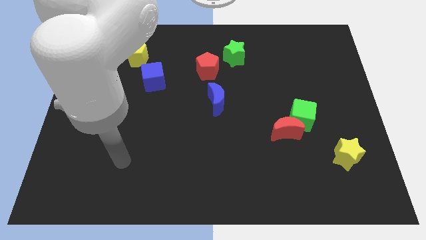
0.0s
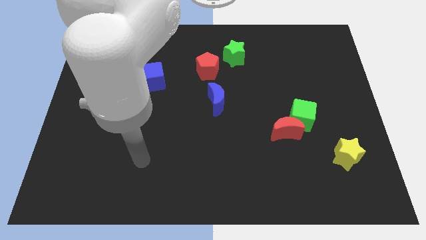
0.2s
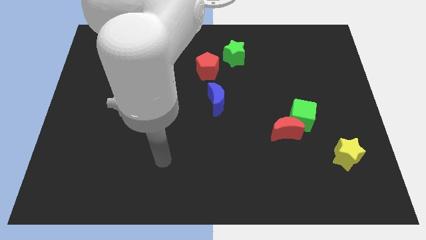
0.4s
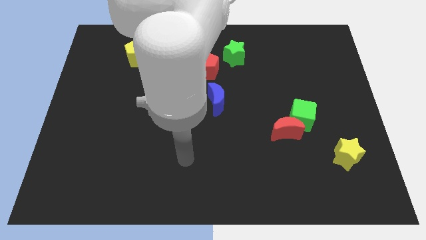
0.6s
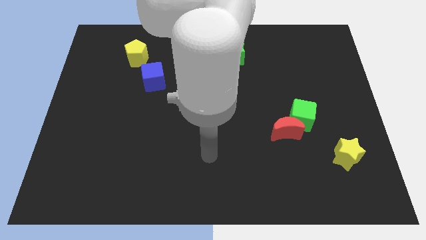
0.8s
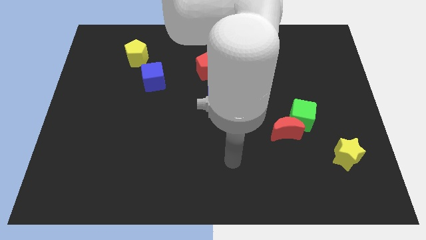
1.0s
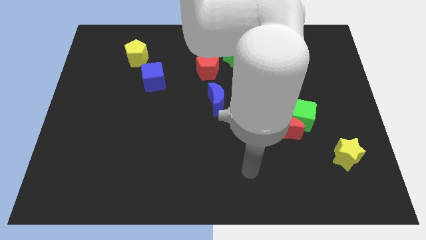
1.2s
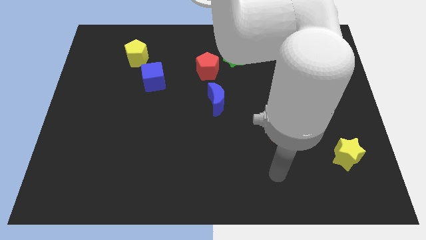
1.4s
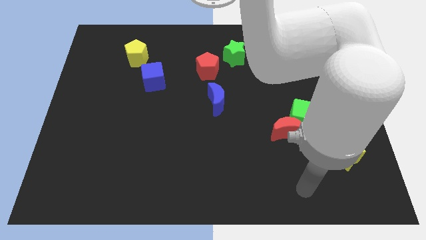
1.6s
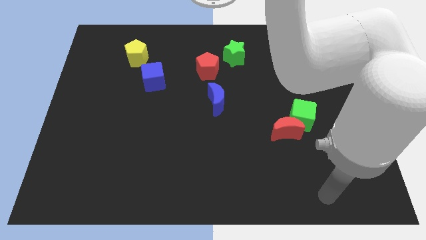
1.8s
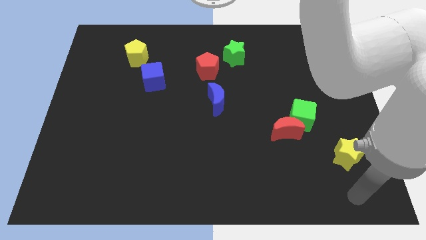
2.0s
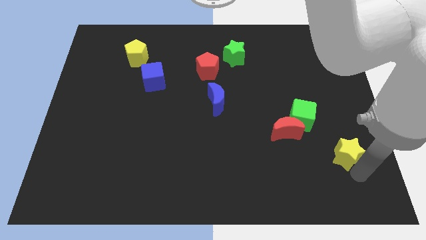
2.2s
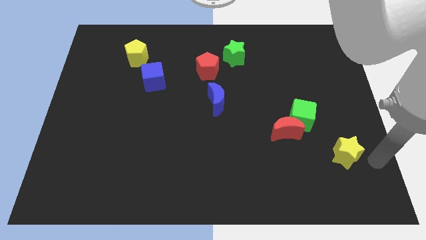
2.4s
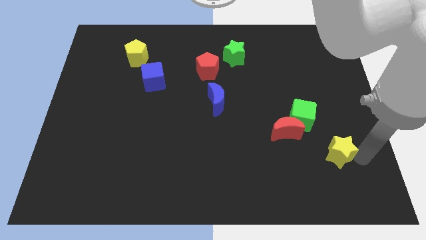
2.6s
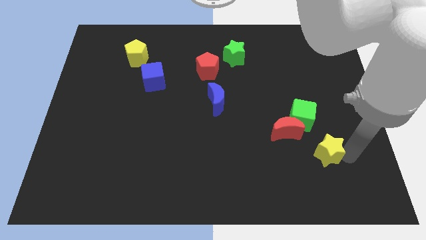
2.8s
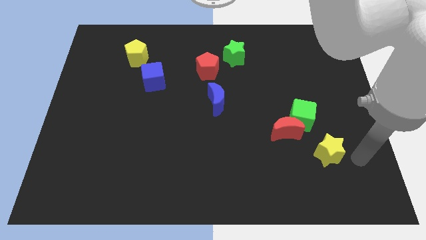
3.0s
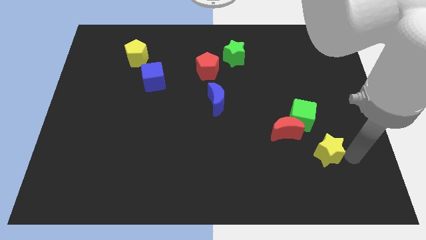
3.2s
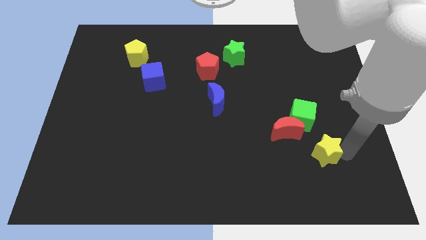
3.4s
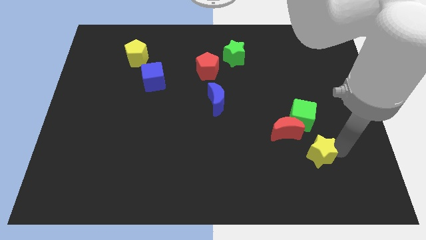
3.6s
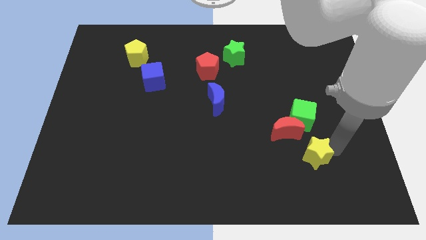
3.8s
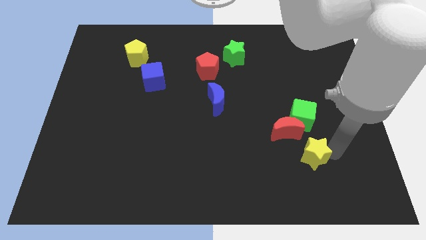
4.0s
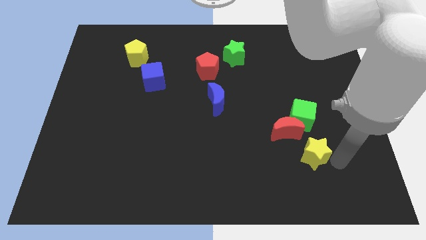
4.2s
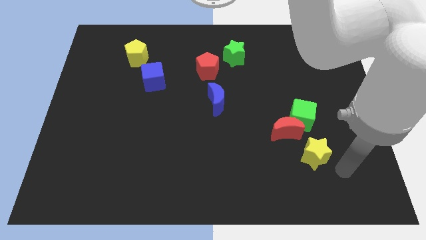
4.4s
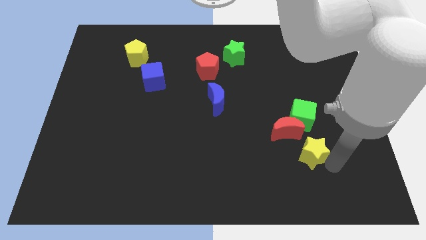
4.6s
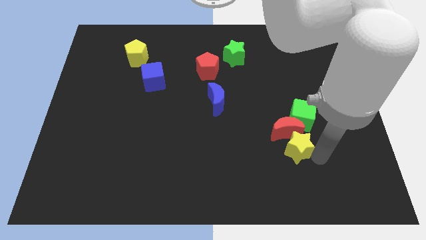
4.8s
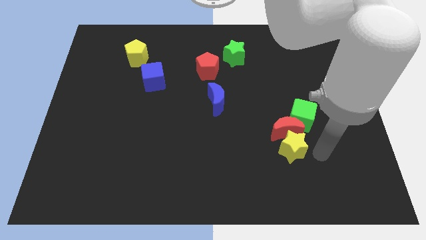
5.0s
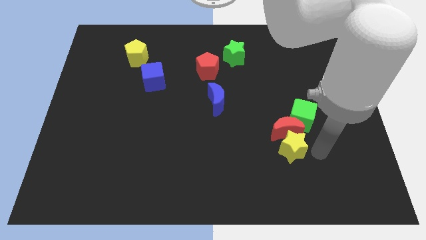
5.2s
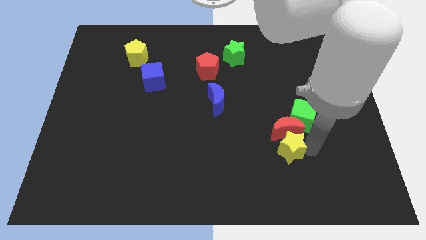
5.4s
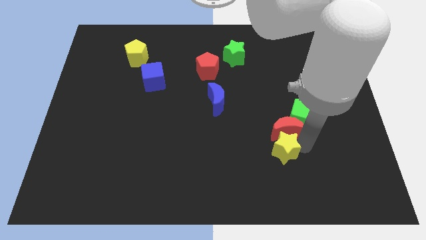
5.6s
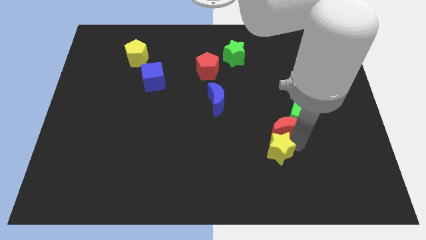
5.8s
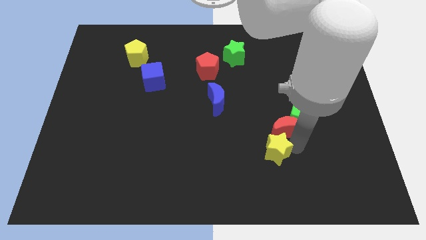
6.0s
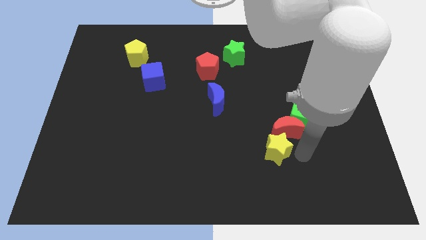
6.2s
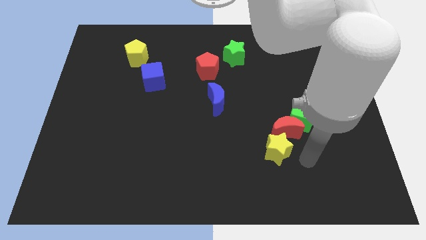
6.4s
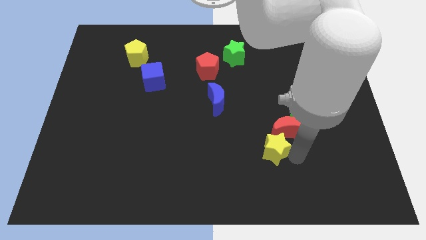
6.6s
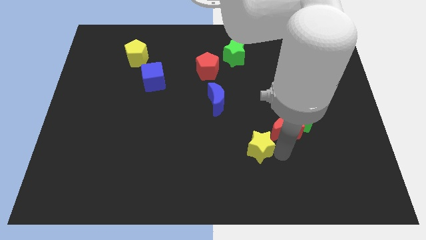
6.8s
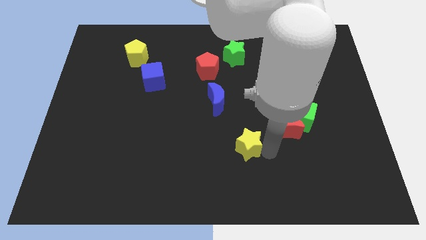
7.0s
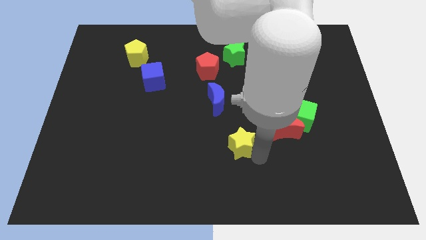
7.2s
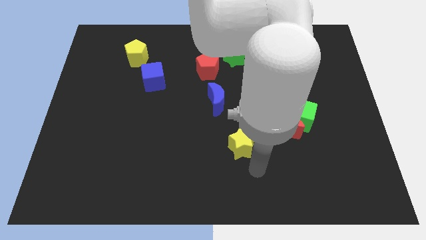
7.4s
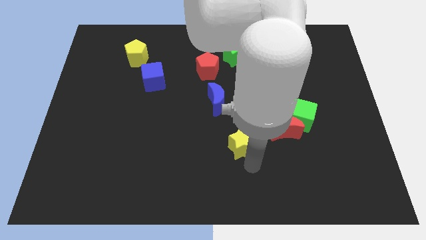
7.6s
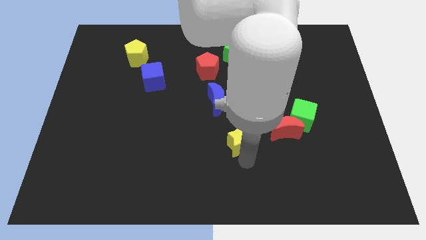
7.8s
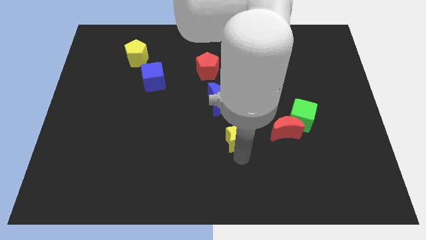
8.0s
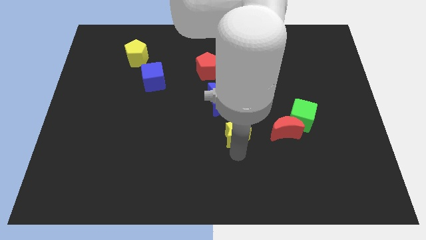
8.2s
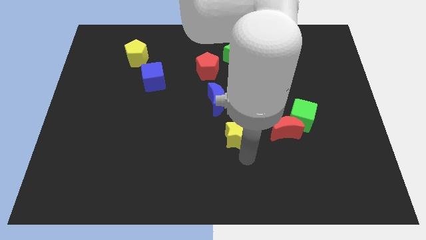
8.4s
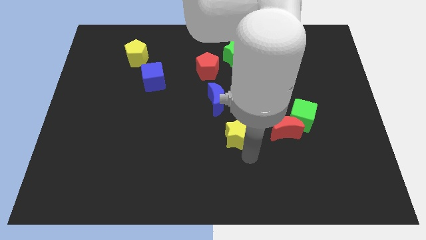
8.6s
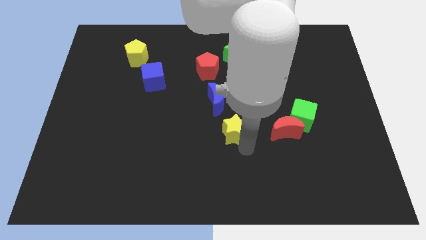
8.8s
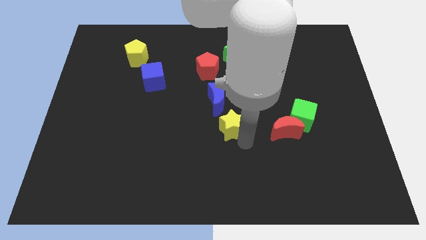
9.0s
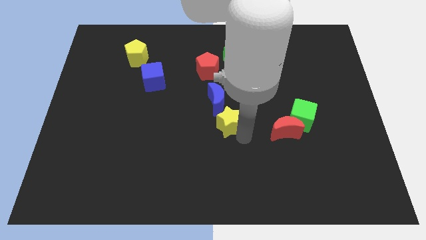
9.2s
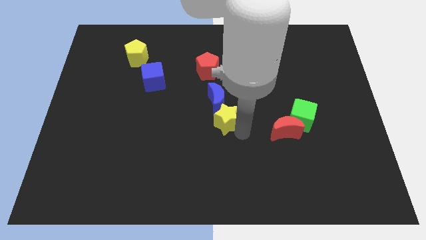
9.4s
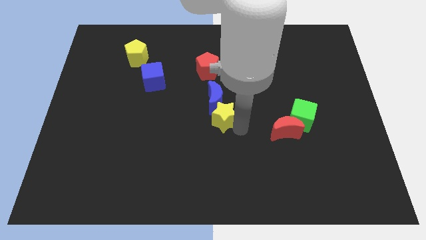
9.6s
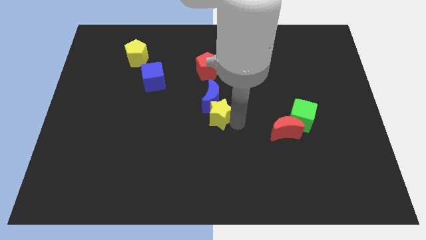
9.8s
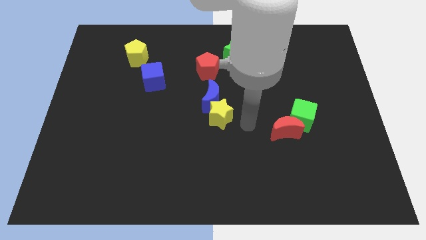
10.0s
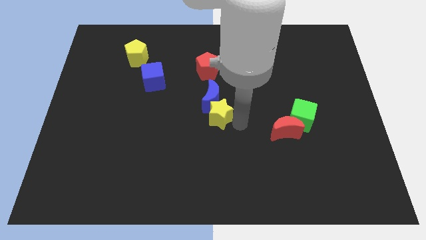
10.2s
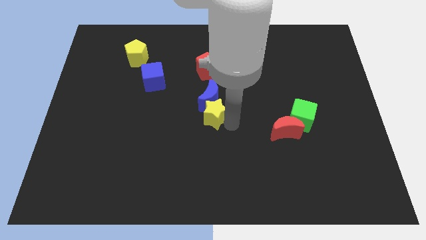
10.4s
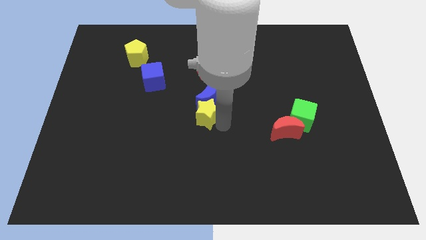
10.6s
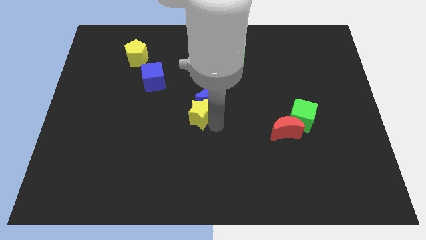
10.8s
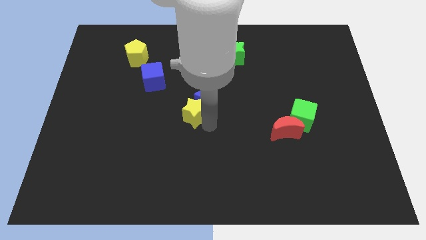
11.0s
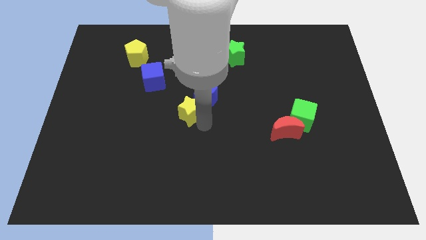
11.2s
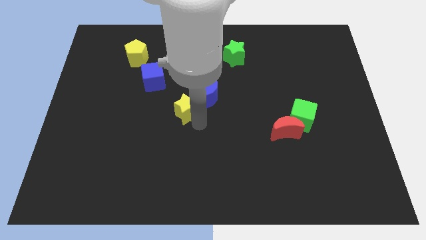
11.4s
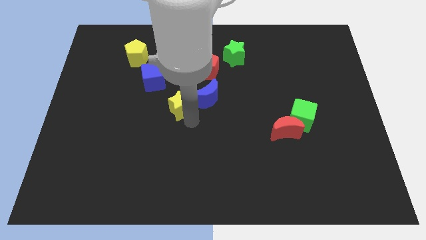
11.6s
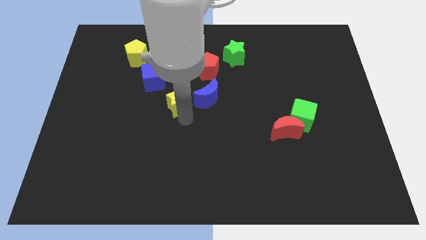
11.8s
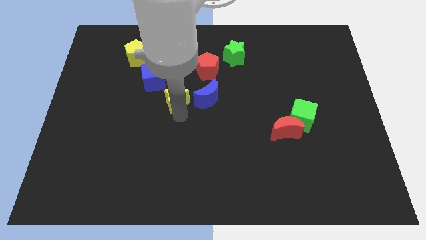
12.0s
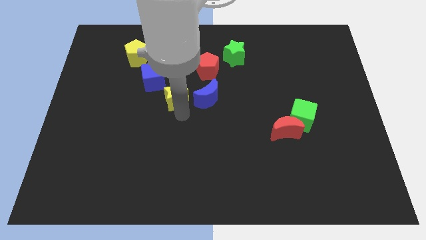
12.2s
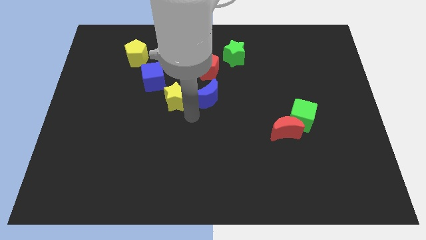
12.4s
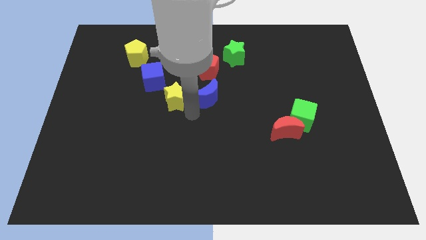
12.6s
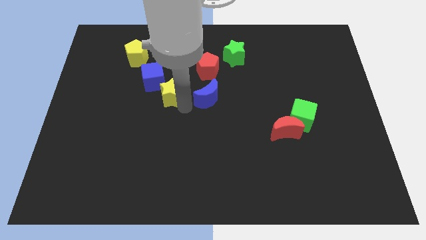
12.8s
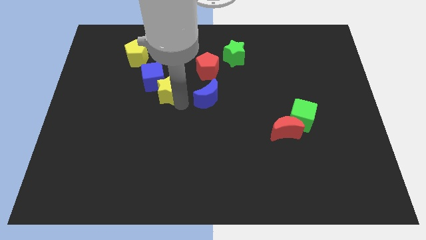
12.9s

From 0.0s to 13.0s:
slide the yellow star next to the blue cube
